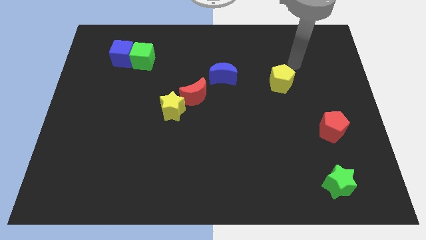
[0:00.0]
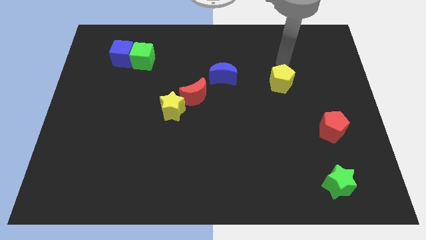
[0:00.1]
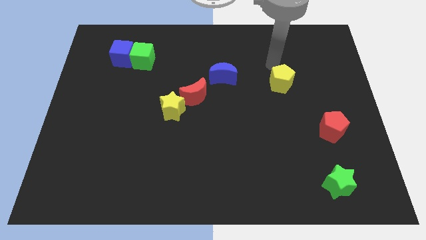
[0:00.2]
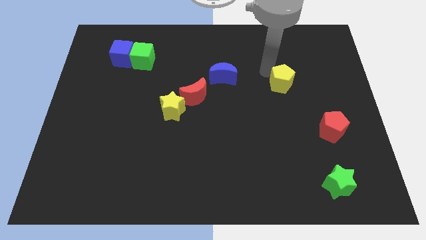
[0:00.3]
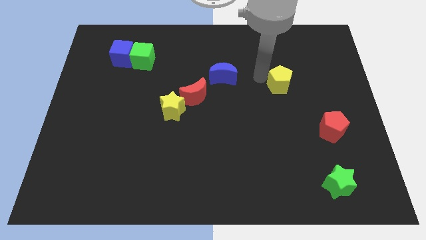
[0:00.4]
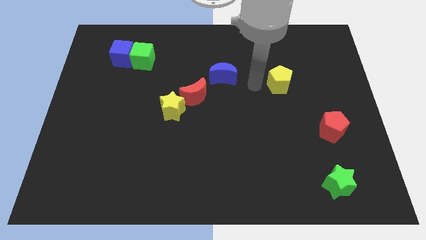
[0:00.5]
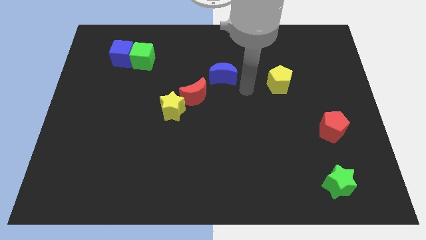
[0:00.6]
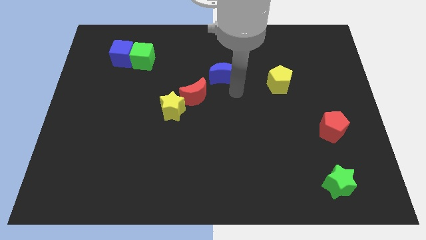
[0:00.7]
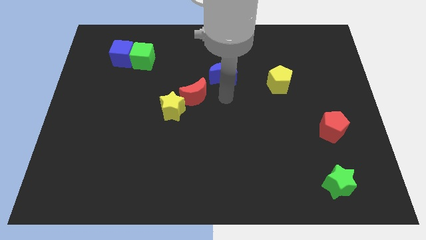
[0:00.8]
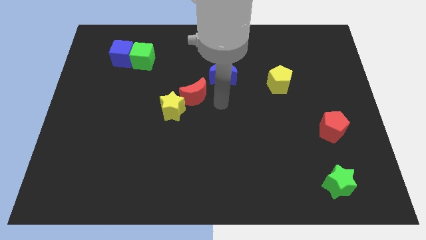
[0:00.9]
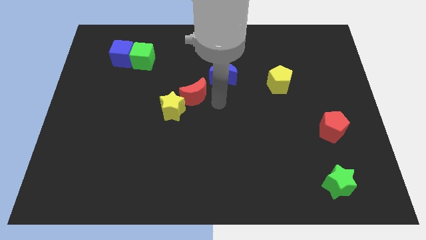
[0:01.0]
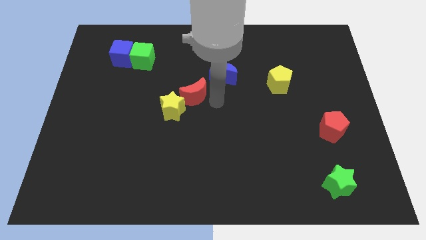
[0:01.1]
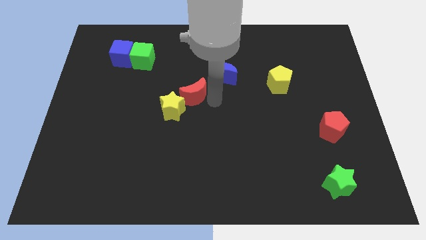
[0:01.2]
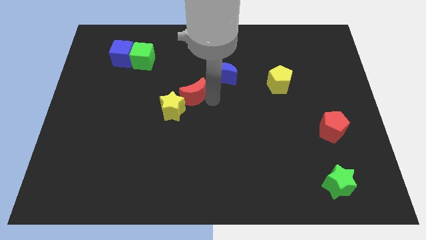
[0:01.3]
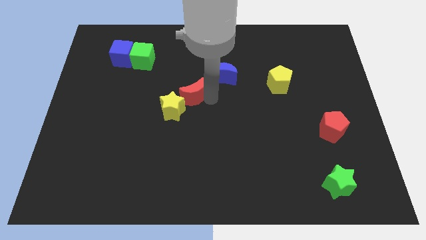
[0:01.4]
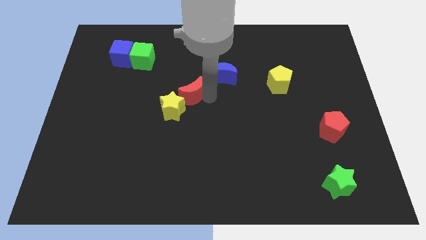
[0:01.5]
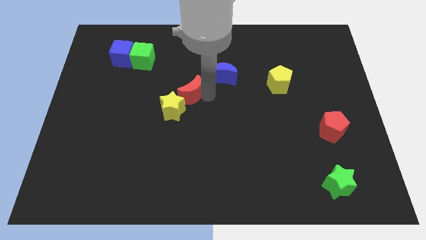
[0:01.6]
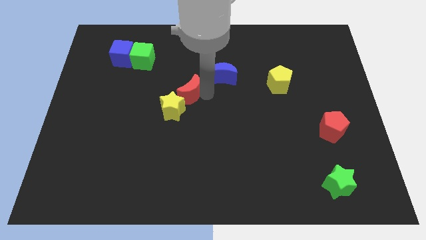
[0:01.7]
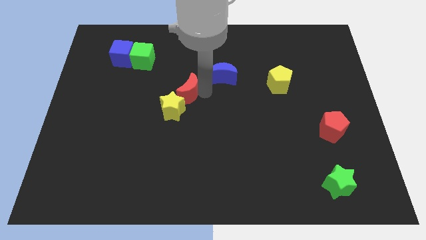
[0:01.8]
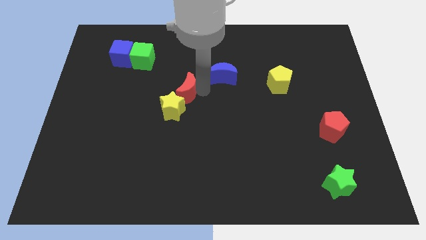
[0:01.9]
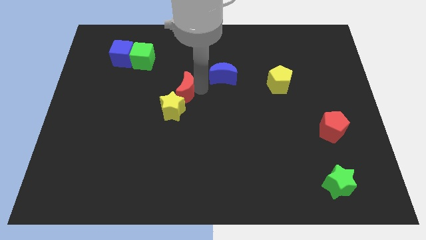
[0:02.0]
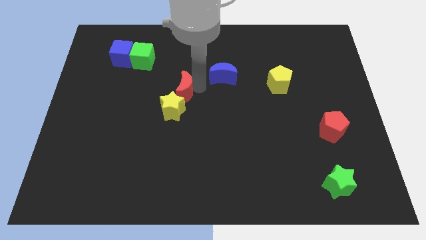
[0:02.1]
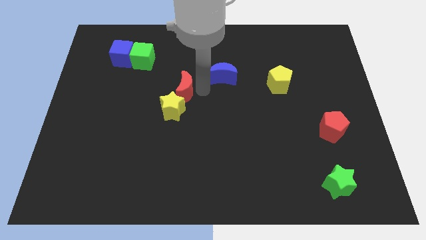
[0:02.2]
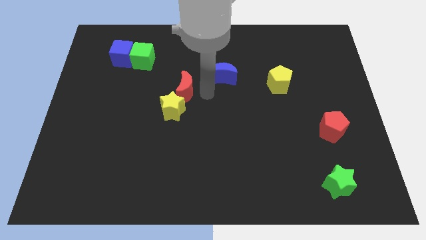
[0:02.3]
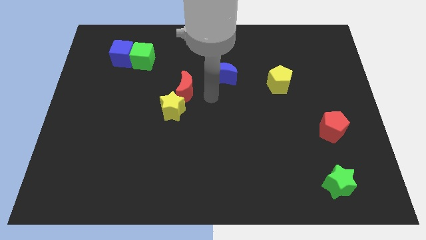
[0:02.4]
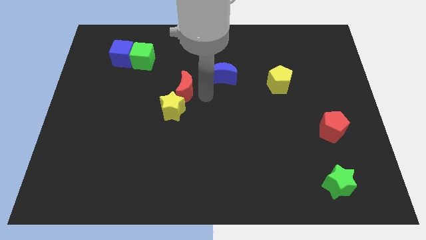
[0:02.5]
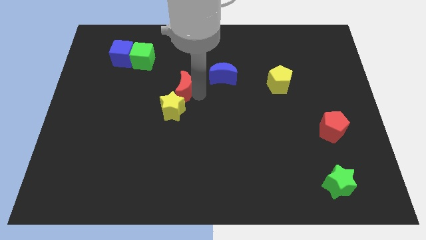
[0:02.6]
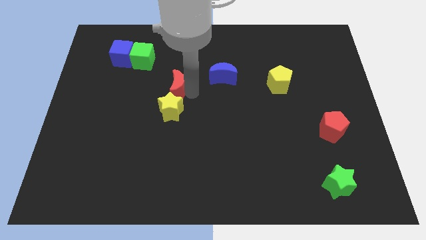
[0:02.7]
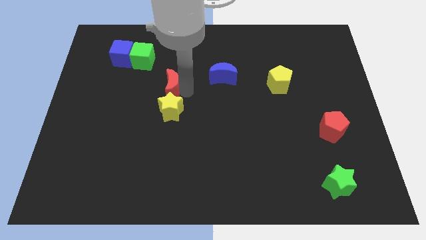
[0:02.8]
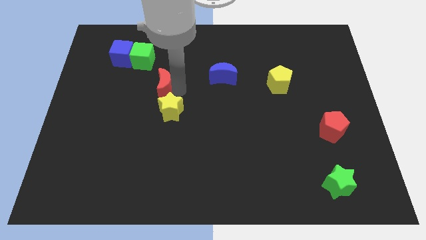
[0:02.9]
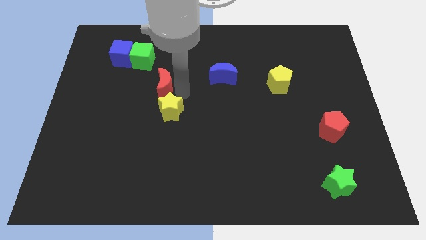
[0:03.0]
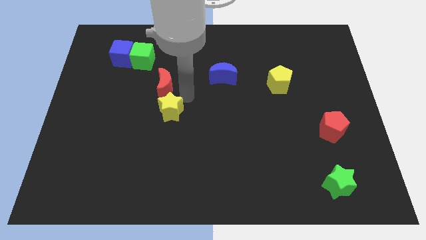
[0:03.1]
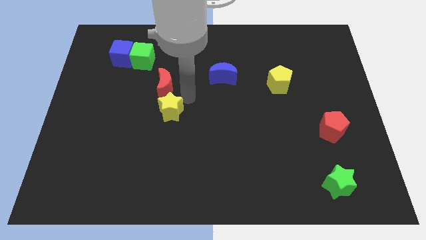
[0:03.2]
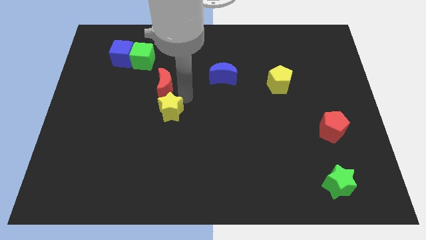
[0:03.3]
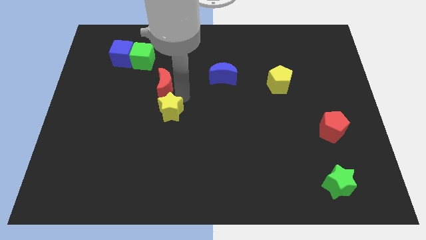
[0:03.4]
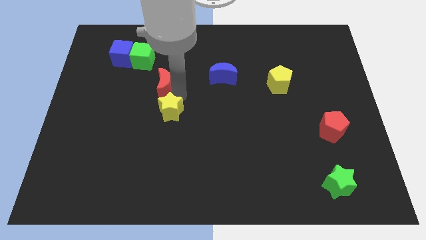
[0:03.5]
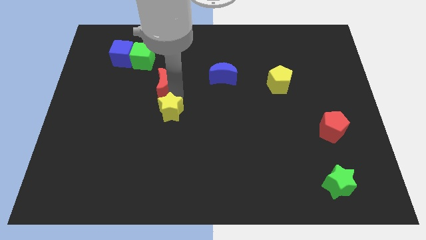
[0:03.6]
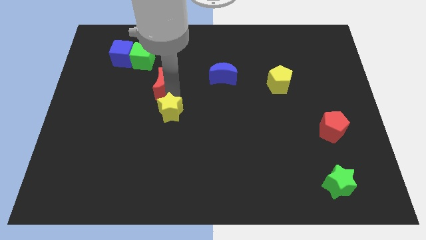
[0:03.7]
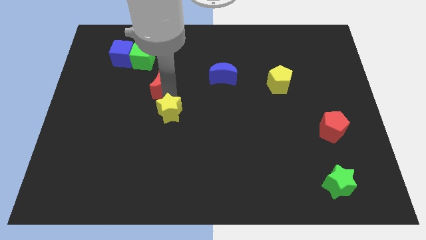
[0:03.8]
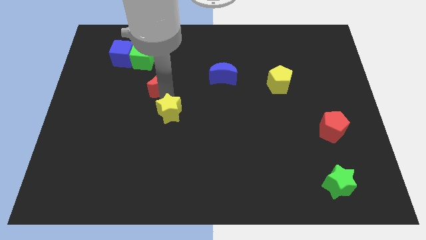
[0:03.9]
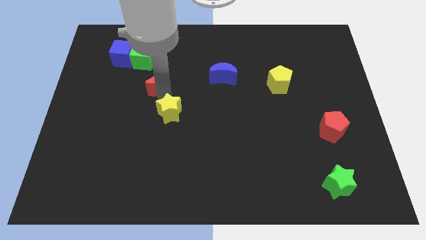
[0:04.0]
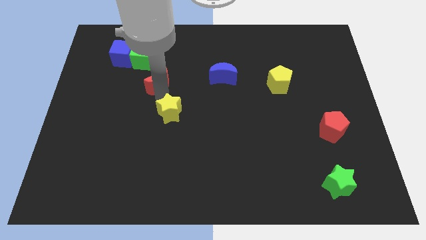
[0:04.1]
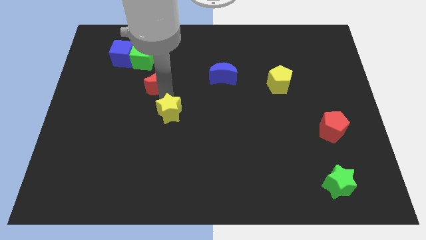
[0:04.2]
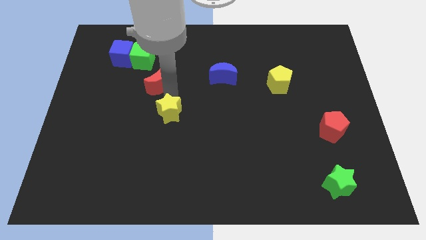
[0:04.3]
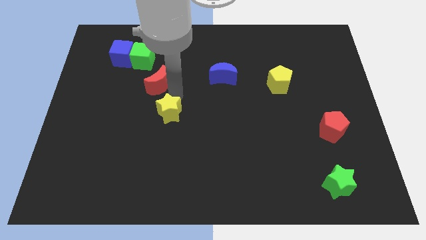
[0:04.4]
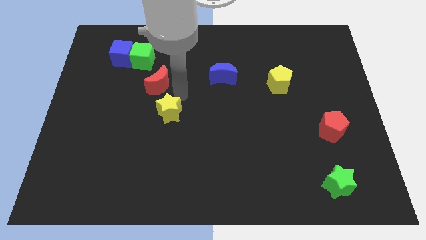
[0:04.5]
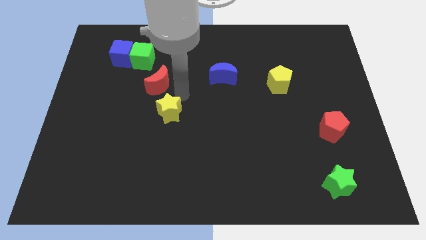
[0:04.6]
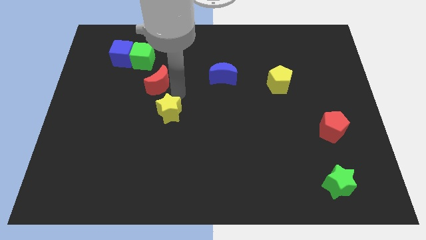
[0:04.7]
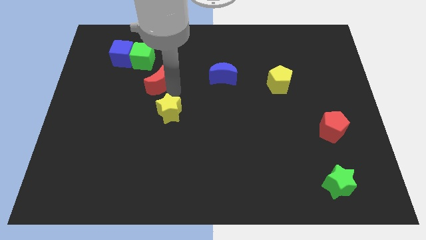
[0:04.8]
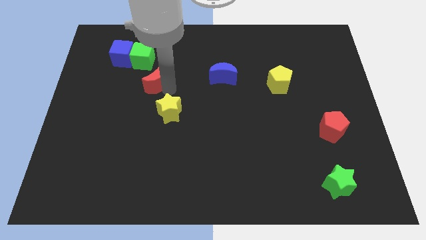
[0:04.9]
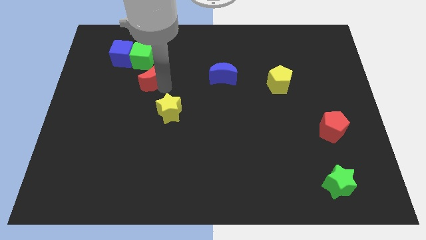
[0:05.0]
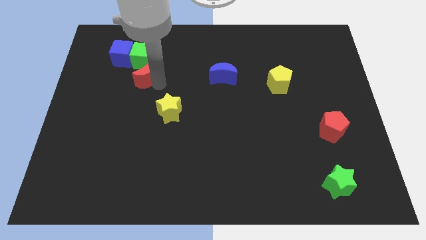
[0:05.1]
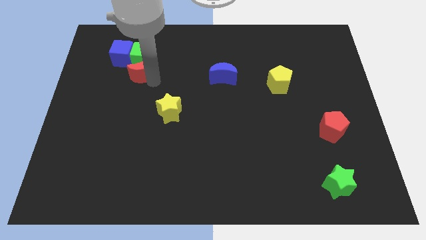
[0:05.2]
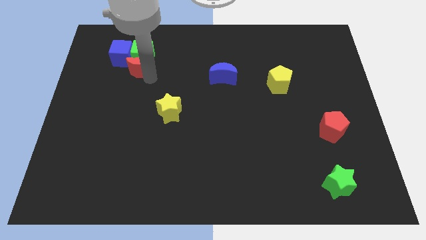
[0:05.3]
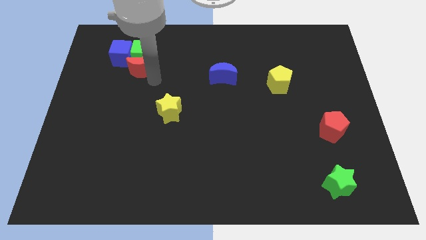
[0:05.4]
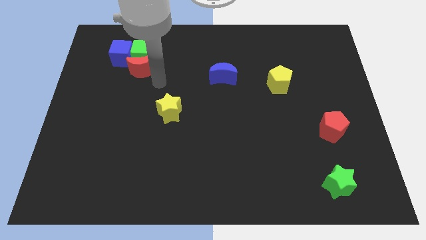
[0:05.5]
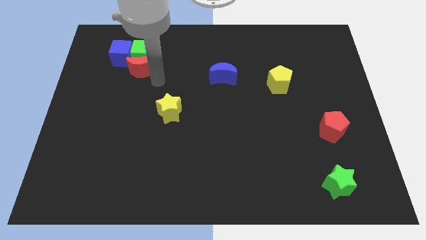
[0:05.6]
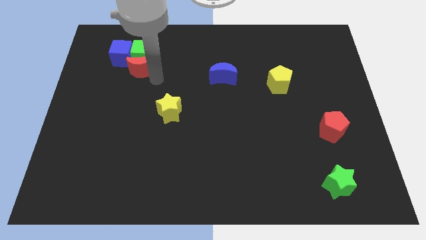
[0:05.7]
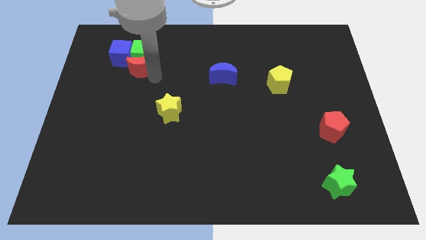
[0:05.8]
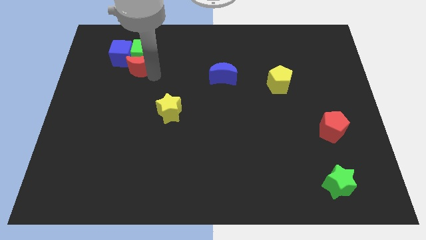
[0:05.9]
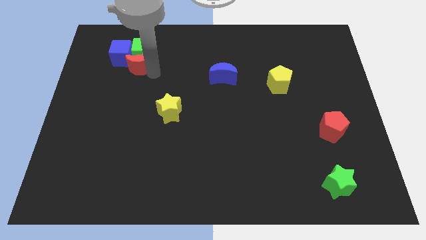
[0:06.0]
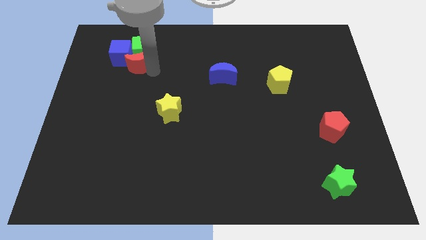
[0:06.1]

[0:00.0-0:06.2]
push the red moon close to the blue cube

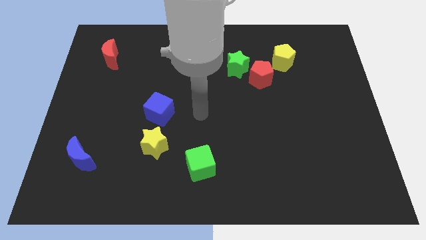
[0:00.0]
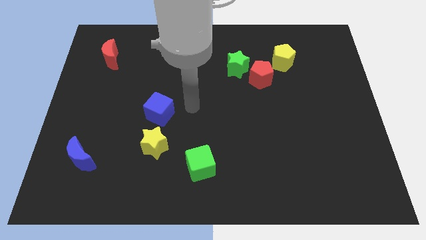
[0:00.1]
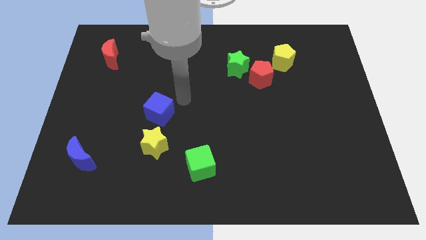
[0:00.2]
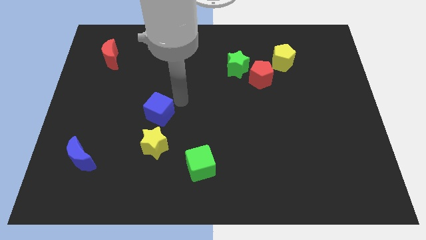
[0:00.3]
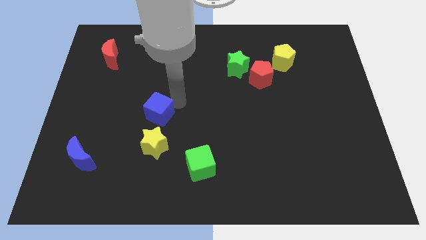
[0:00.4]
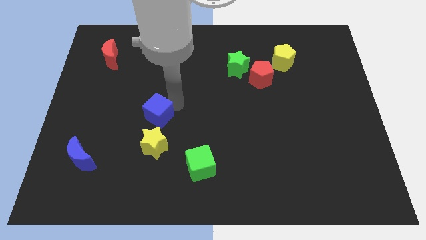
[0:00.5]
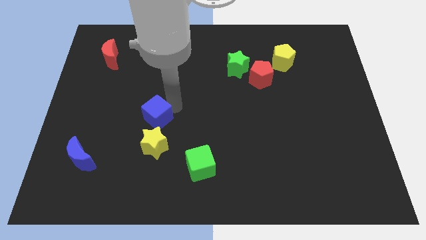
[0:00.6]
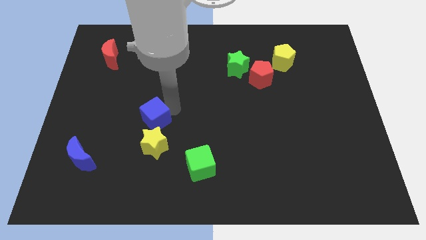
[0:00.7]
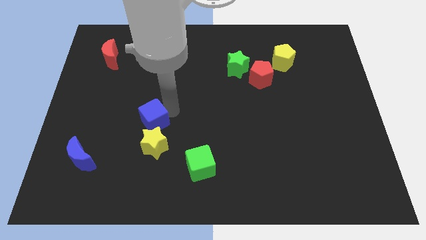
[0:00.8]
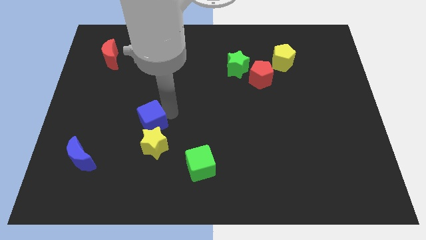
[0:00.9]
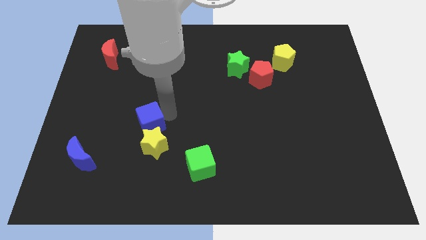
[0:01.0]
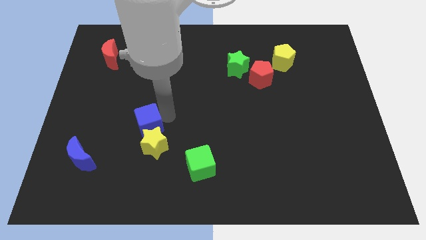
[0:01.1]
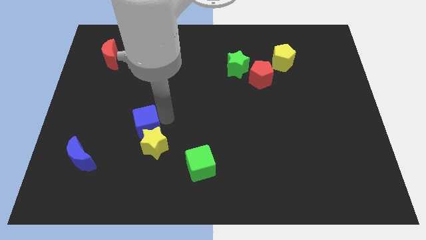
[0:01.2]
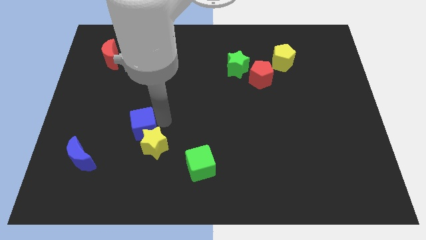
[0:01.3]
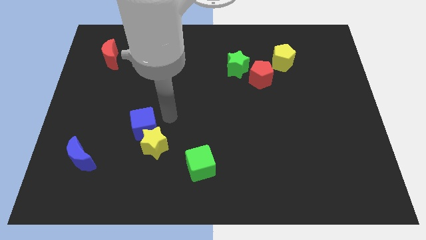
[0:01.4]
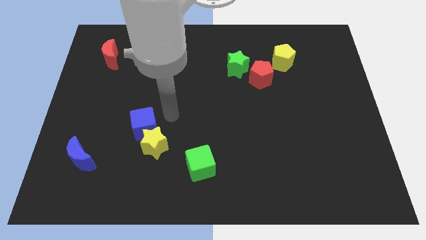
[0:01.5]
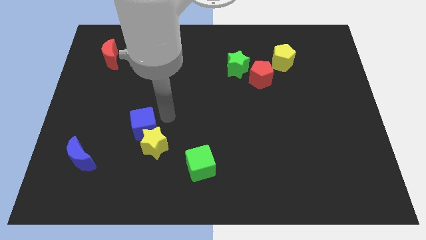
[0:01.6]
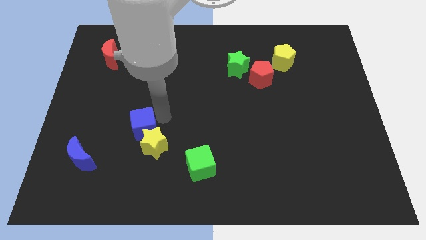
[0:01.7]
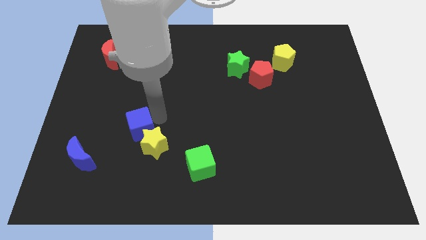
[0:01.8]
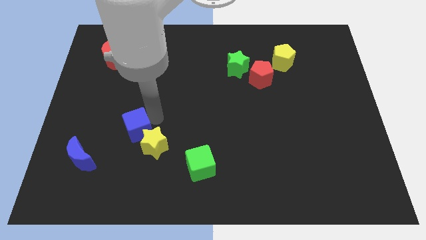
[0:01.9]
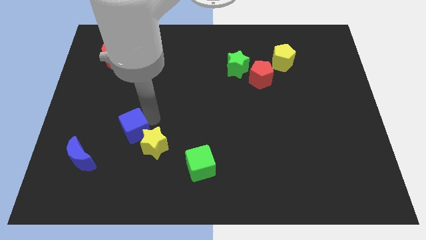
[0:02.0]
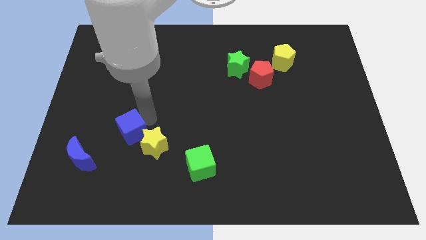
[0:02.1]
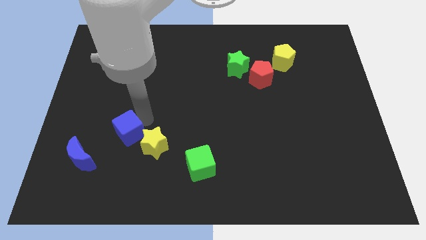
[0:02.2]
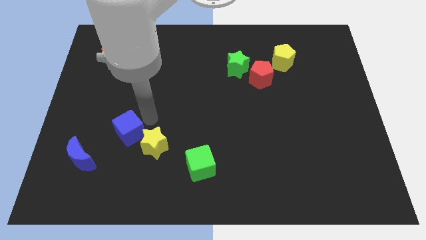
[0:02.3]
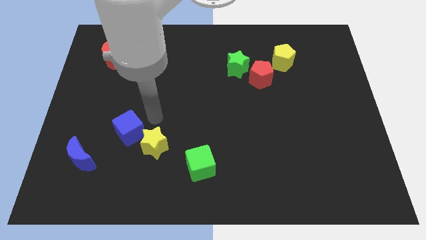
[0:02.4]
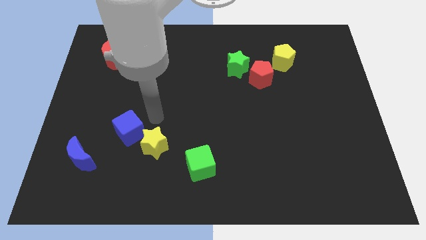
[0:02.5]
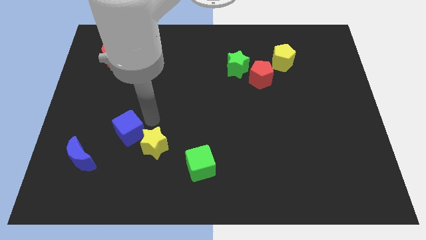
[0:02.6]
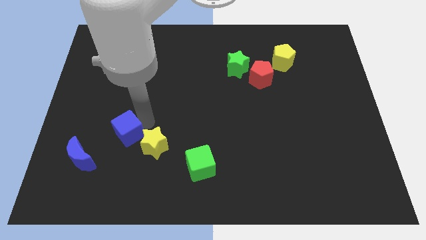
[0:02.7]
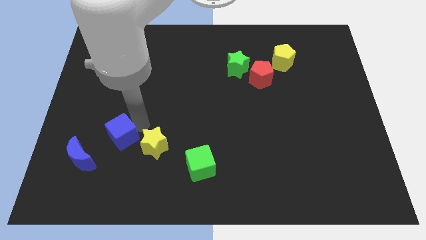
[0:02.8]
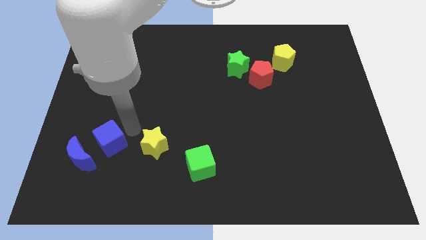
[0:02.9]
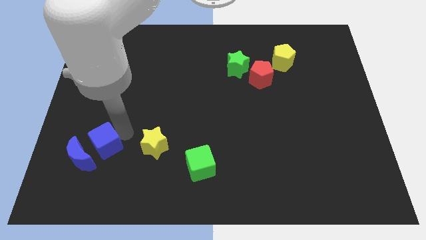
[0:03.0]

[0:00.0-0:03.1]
push the blue cube close to the blue moon
